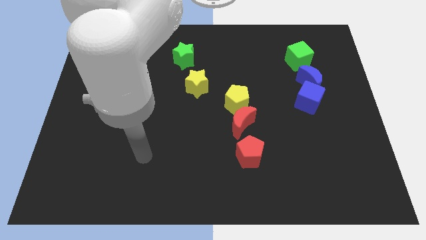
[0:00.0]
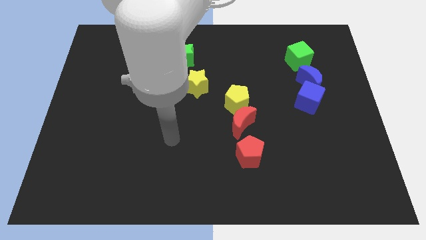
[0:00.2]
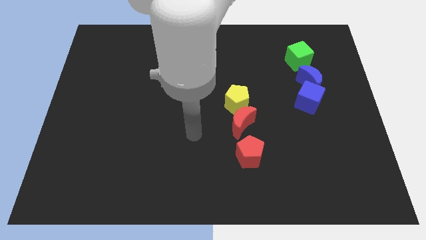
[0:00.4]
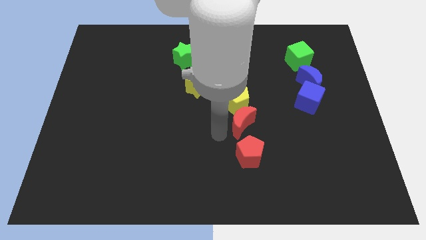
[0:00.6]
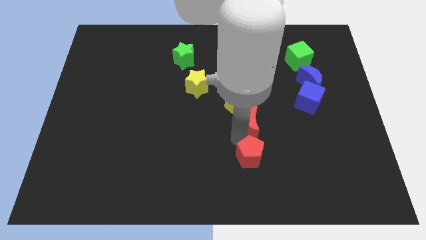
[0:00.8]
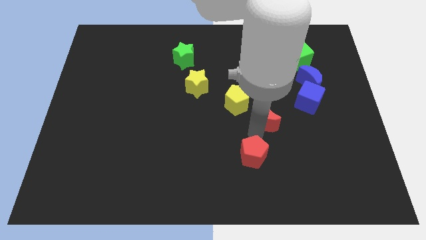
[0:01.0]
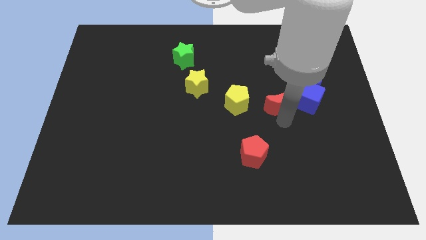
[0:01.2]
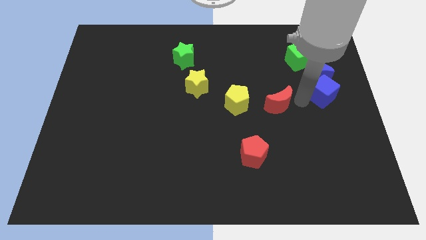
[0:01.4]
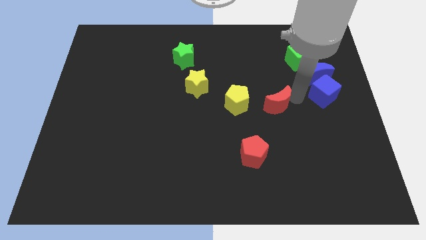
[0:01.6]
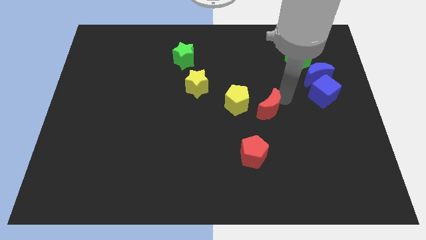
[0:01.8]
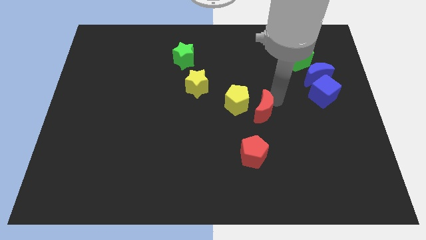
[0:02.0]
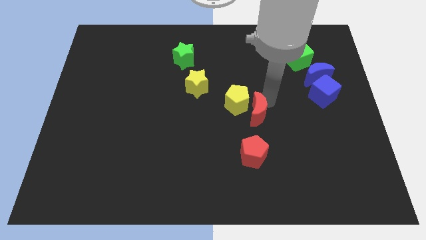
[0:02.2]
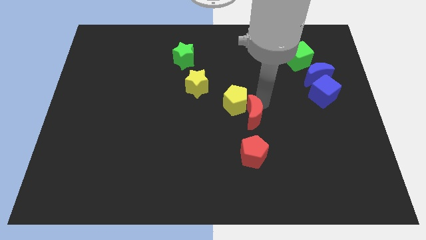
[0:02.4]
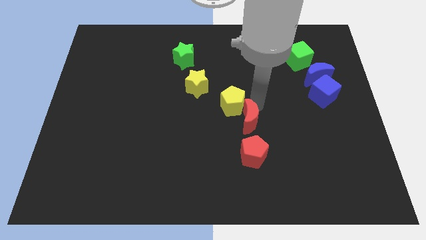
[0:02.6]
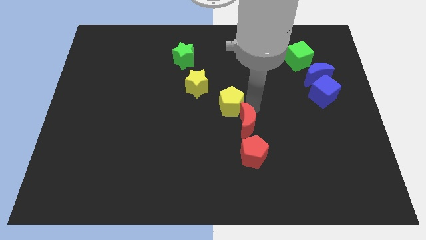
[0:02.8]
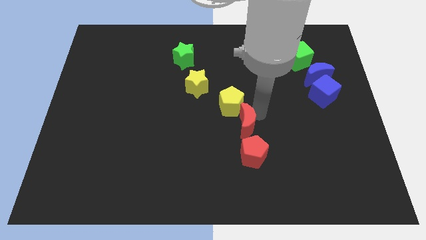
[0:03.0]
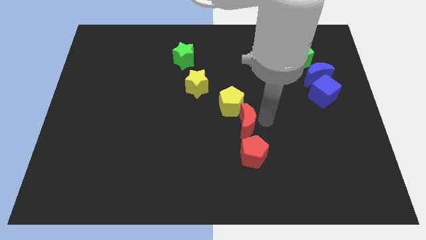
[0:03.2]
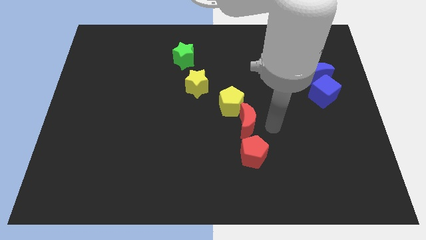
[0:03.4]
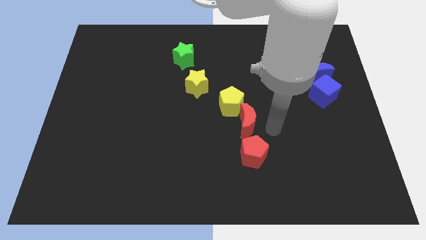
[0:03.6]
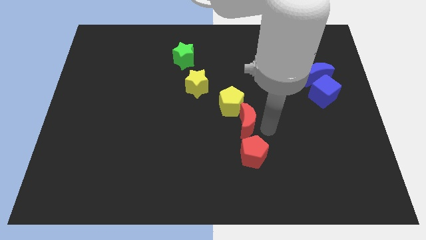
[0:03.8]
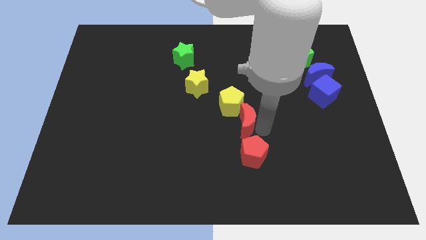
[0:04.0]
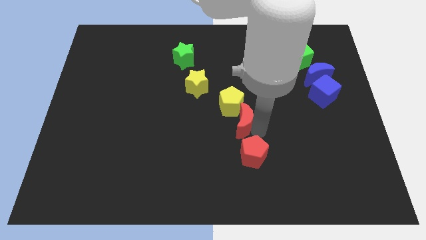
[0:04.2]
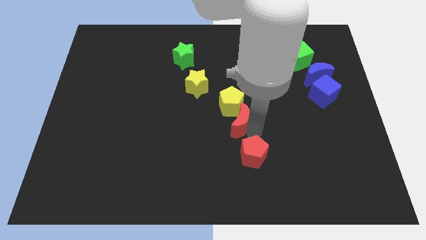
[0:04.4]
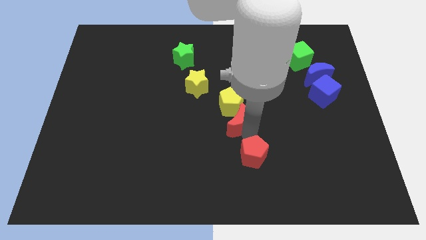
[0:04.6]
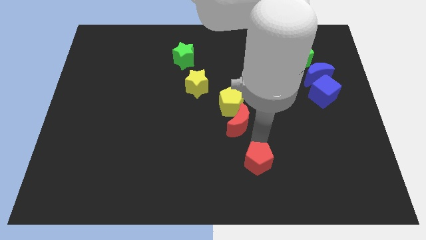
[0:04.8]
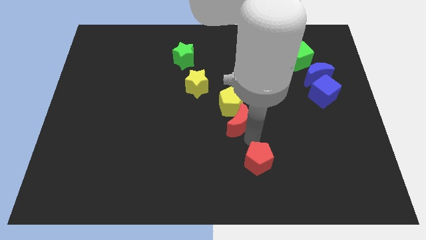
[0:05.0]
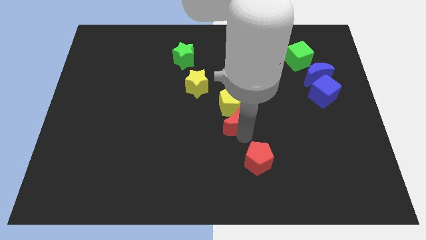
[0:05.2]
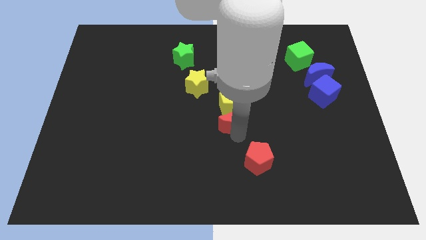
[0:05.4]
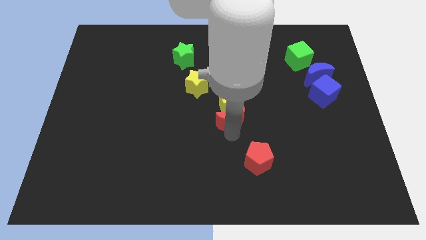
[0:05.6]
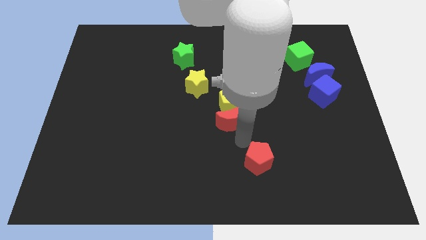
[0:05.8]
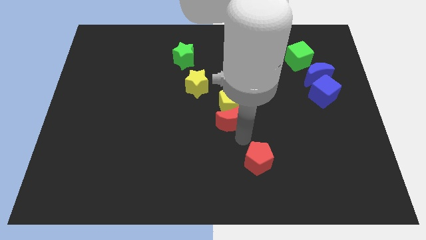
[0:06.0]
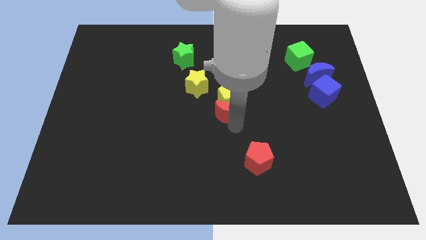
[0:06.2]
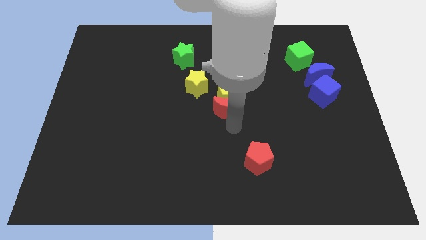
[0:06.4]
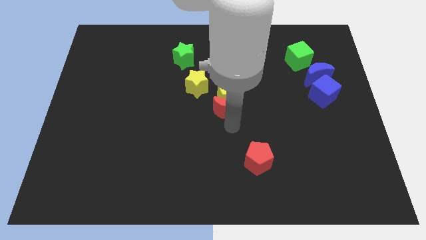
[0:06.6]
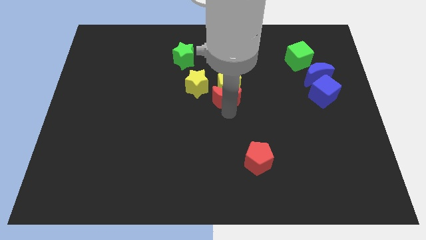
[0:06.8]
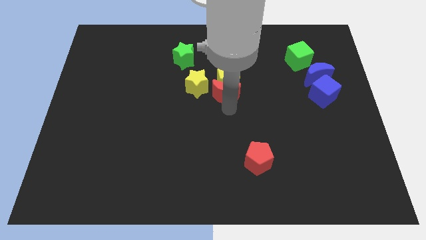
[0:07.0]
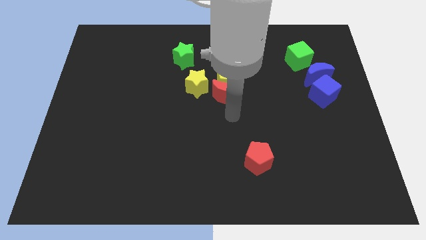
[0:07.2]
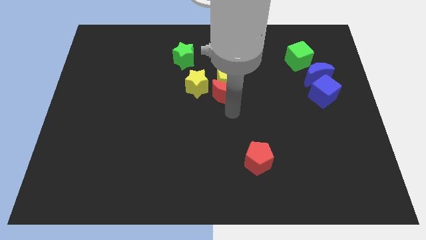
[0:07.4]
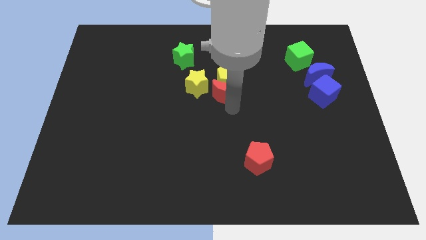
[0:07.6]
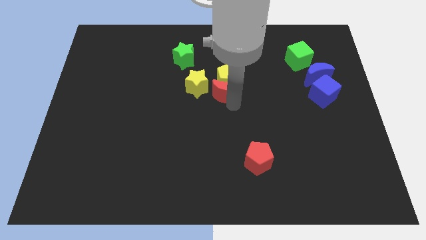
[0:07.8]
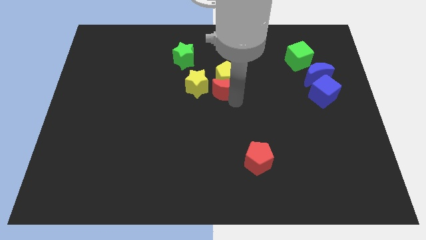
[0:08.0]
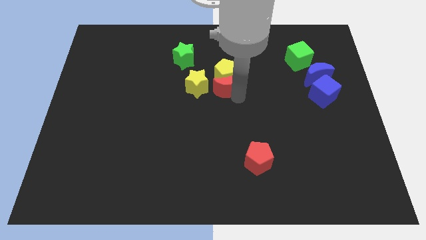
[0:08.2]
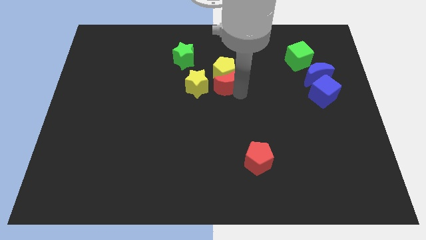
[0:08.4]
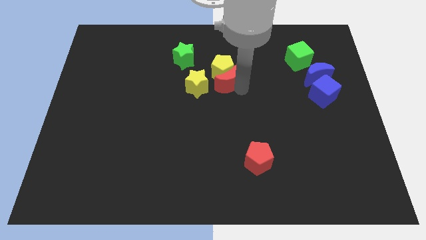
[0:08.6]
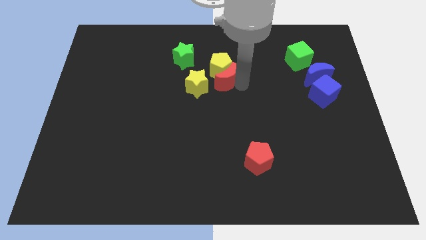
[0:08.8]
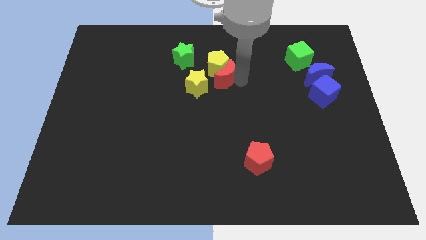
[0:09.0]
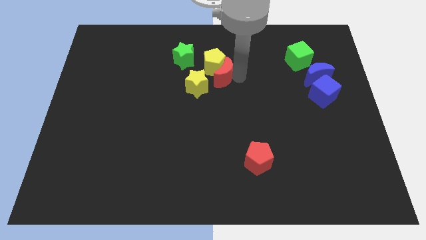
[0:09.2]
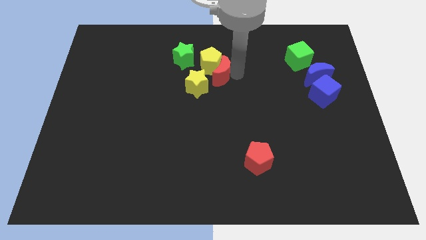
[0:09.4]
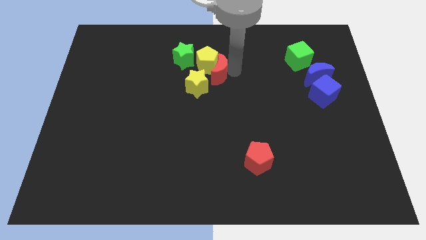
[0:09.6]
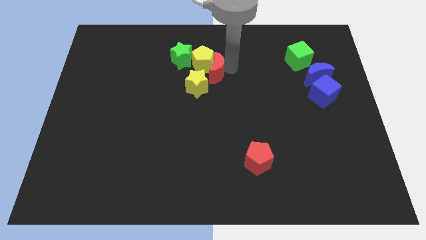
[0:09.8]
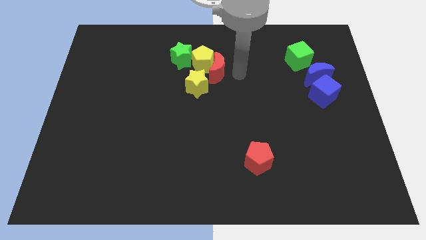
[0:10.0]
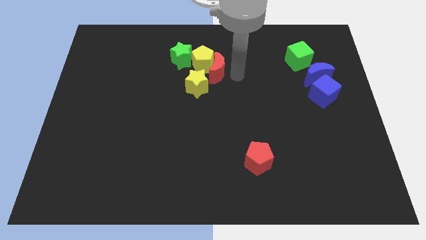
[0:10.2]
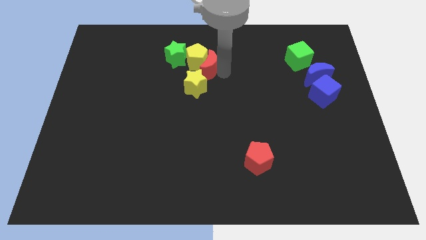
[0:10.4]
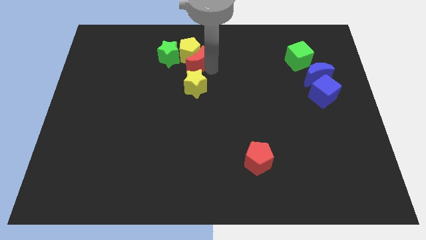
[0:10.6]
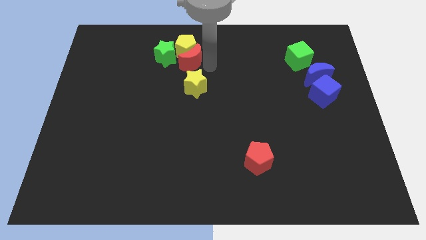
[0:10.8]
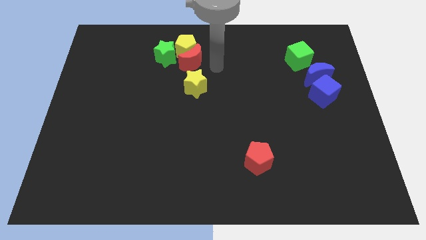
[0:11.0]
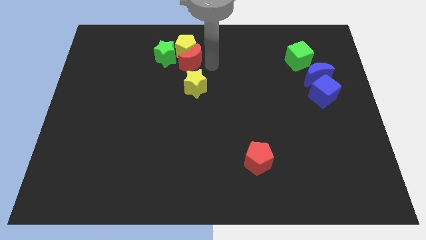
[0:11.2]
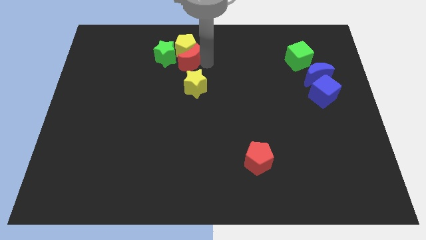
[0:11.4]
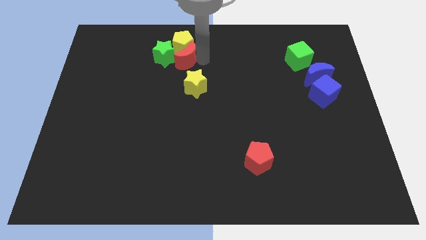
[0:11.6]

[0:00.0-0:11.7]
slide the red moon towards the green star

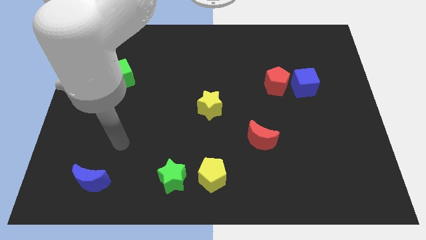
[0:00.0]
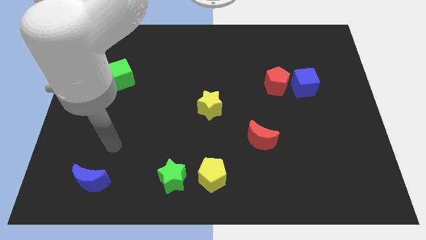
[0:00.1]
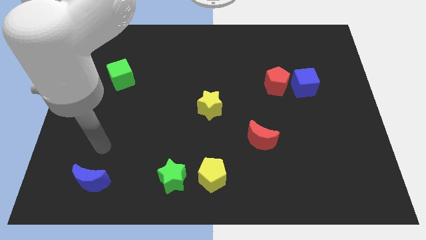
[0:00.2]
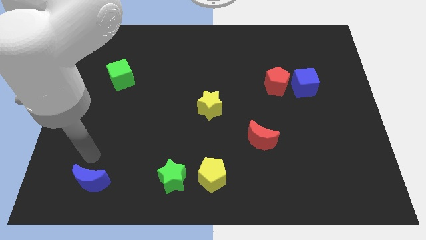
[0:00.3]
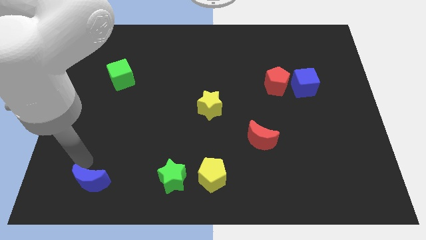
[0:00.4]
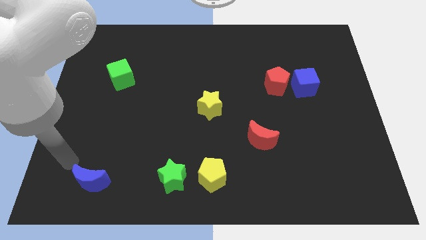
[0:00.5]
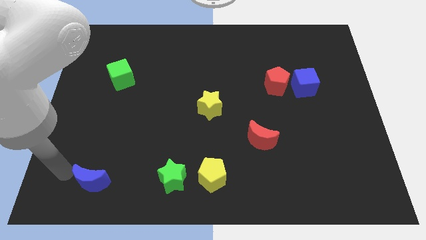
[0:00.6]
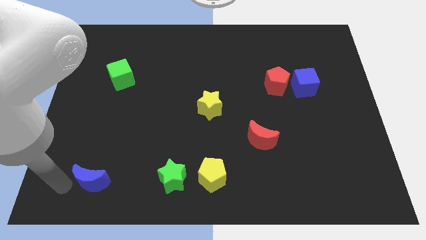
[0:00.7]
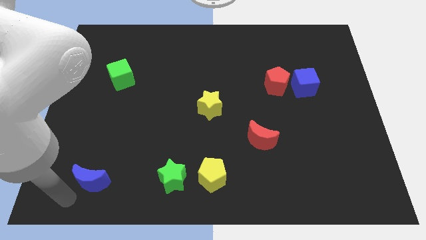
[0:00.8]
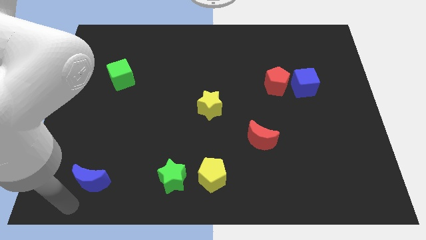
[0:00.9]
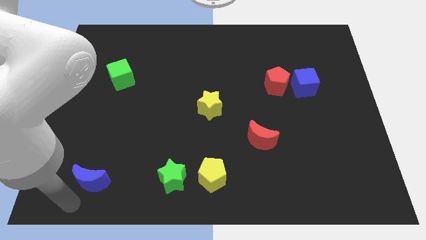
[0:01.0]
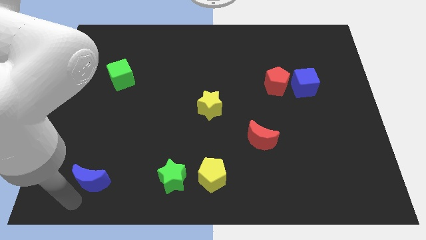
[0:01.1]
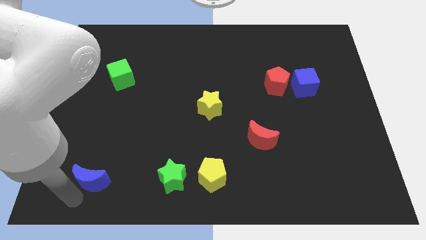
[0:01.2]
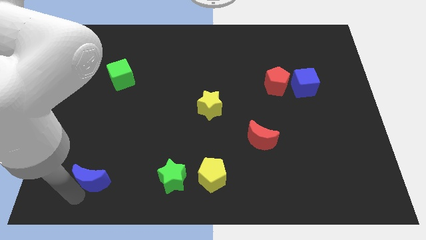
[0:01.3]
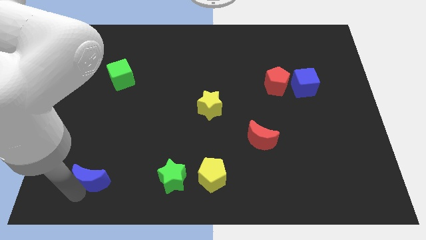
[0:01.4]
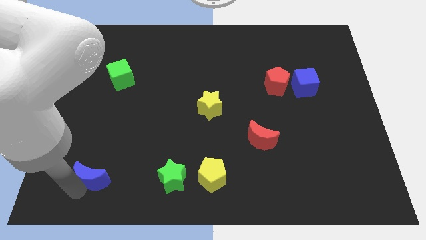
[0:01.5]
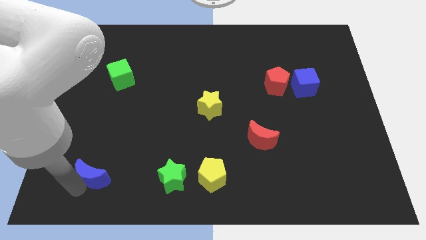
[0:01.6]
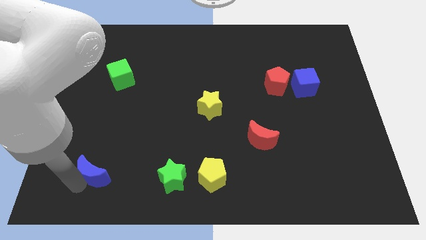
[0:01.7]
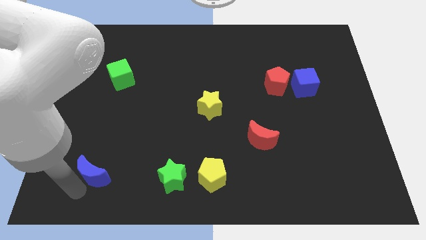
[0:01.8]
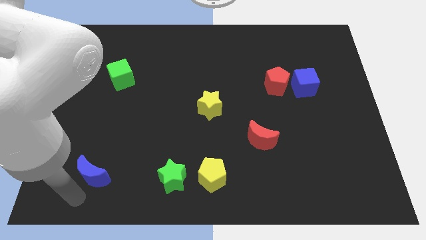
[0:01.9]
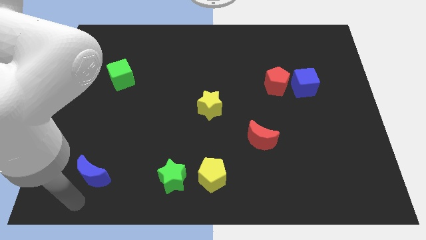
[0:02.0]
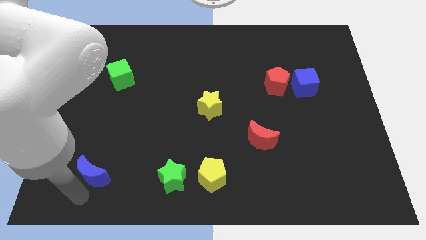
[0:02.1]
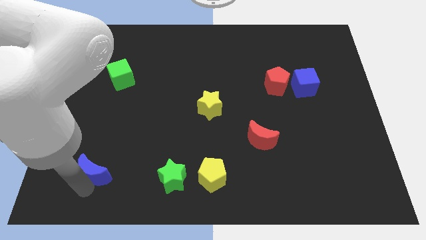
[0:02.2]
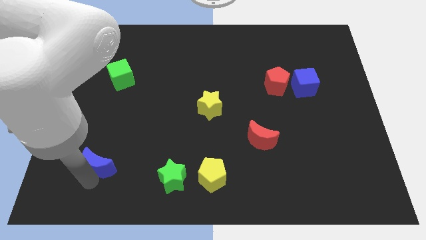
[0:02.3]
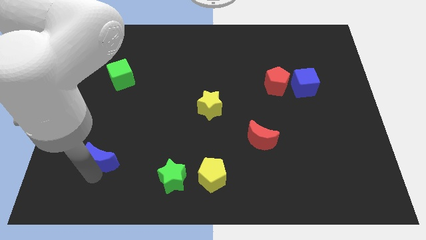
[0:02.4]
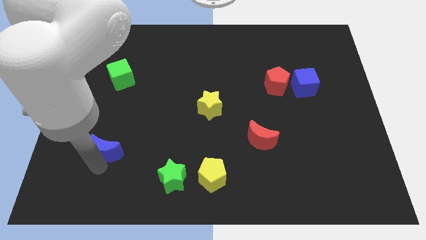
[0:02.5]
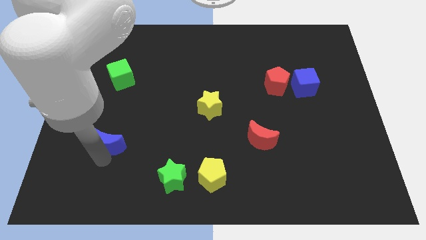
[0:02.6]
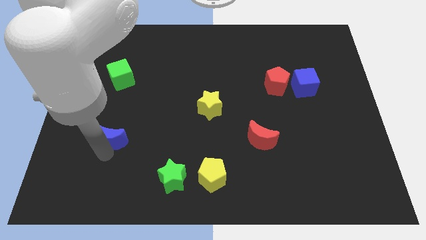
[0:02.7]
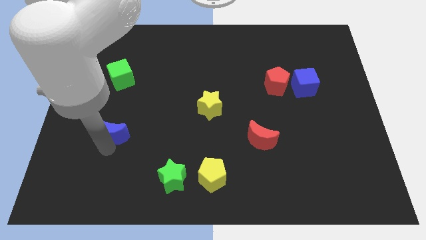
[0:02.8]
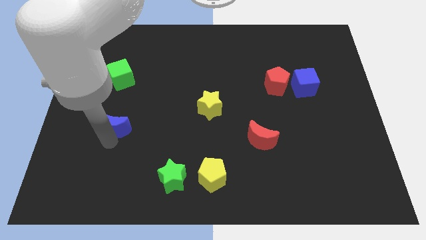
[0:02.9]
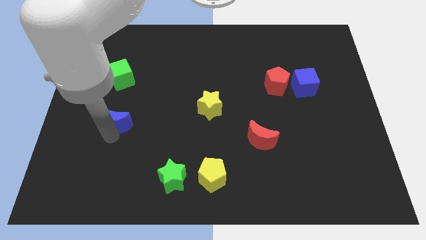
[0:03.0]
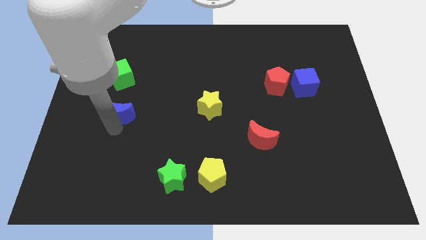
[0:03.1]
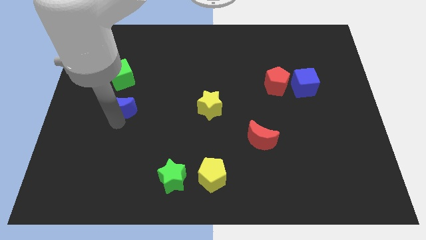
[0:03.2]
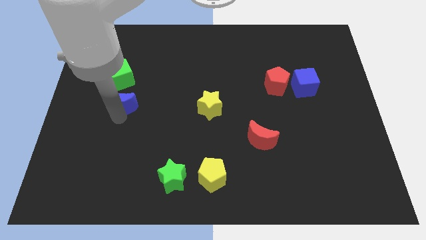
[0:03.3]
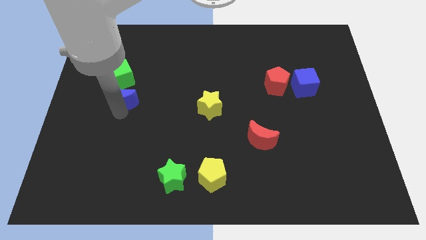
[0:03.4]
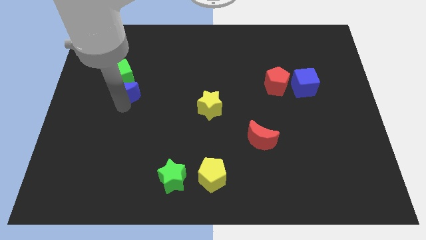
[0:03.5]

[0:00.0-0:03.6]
put the blue moon towards the green cube
